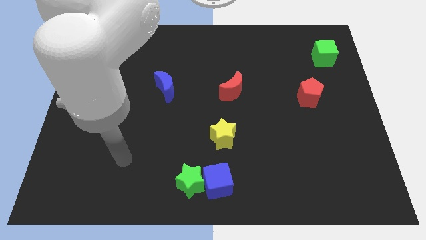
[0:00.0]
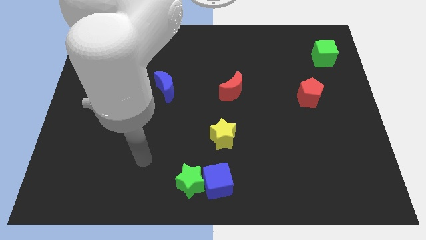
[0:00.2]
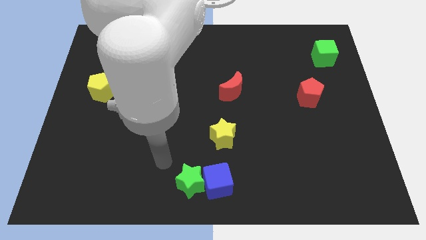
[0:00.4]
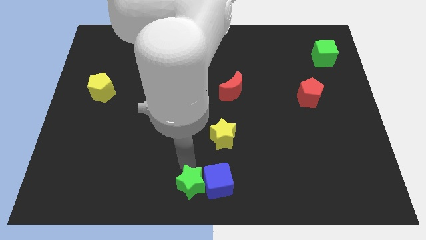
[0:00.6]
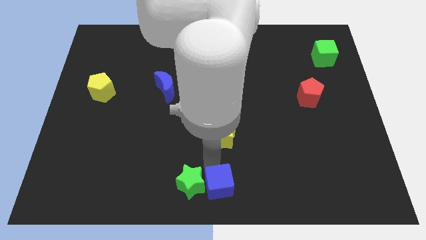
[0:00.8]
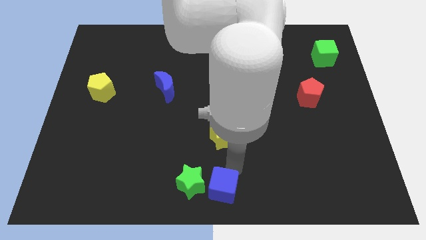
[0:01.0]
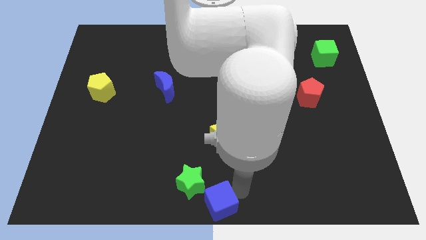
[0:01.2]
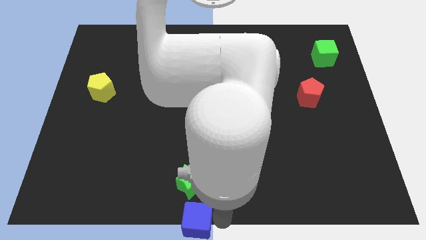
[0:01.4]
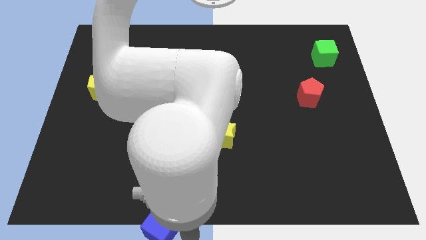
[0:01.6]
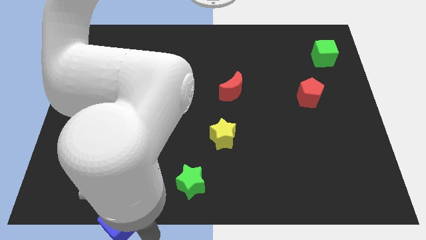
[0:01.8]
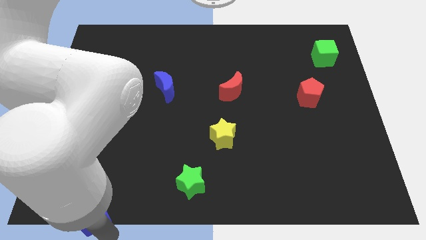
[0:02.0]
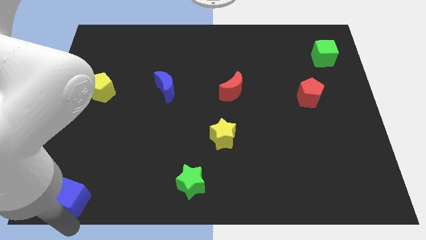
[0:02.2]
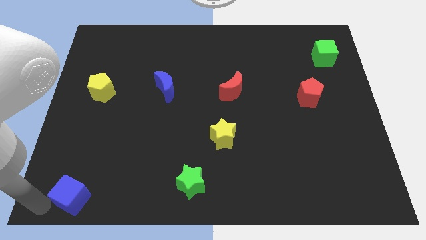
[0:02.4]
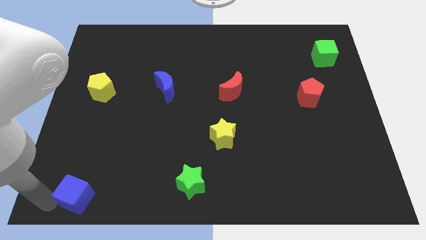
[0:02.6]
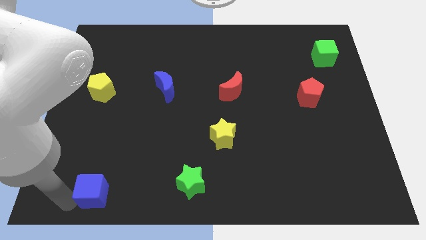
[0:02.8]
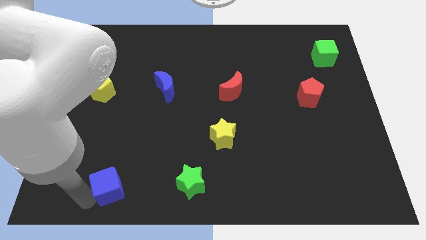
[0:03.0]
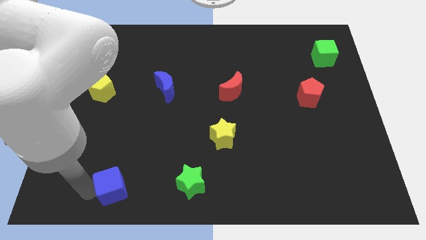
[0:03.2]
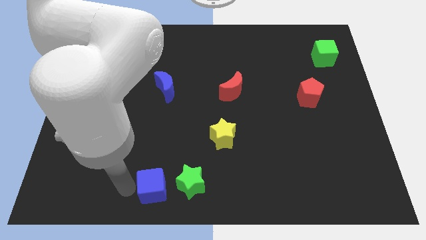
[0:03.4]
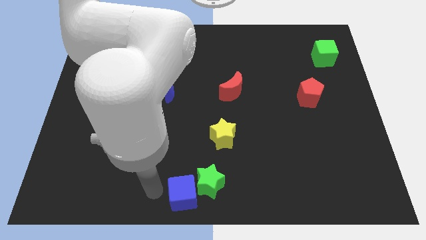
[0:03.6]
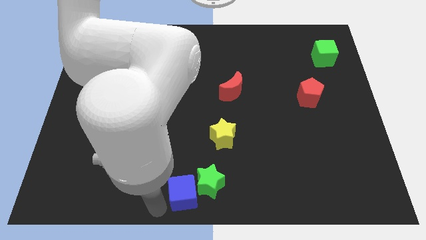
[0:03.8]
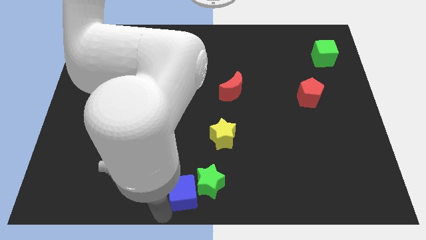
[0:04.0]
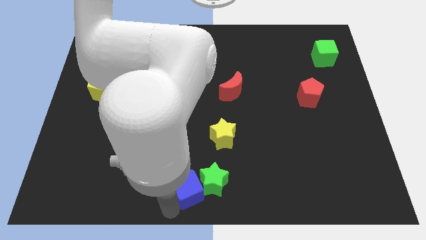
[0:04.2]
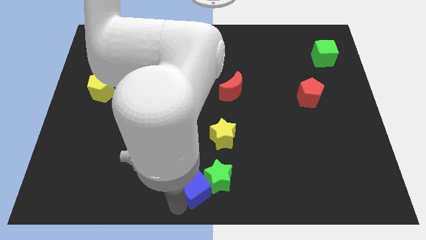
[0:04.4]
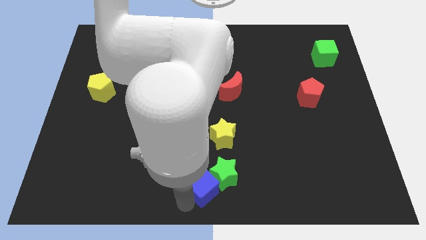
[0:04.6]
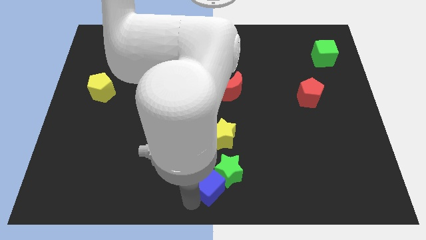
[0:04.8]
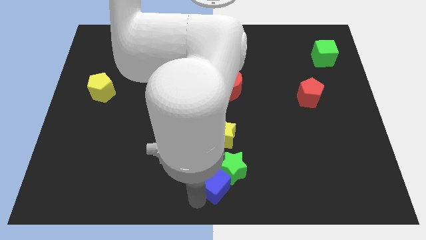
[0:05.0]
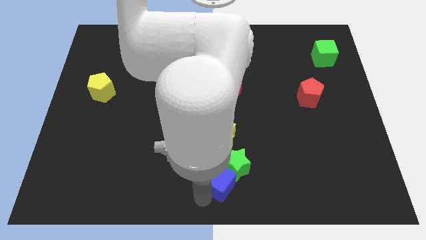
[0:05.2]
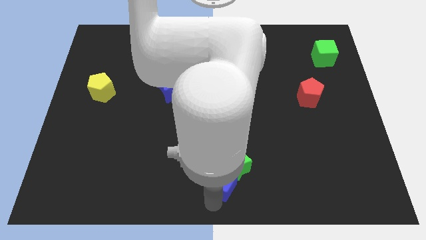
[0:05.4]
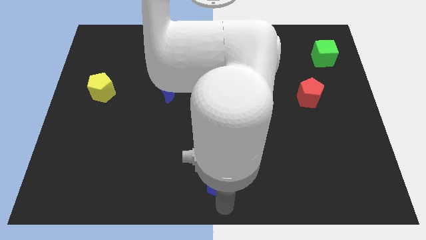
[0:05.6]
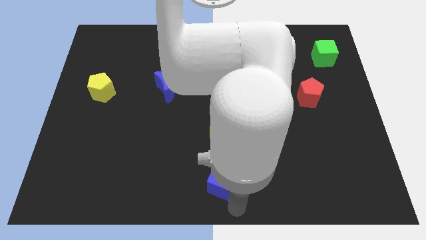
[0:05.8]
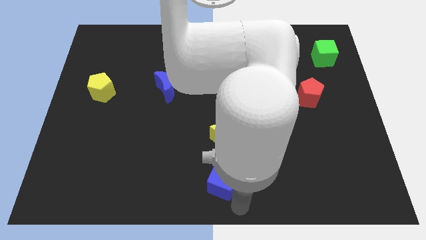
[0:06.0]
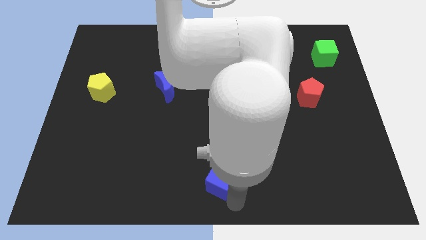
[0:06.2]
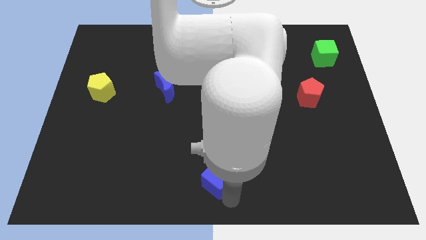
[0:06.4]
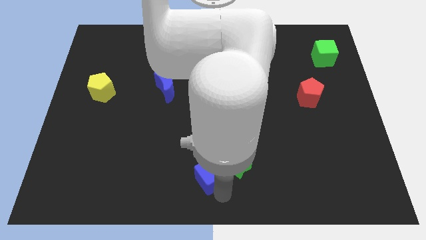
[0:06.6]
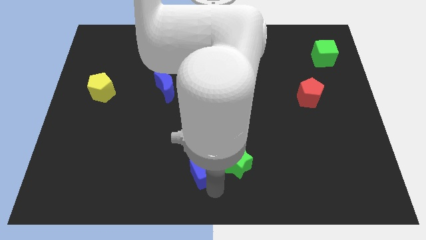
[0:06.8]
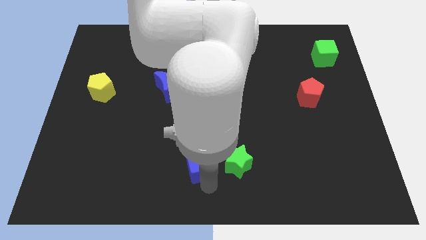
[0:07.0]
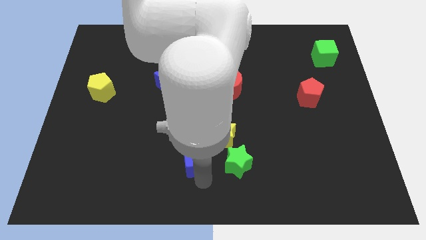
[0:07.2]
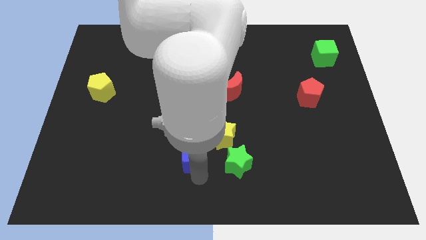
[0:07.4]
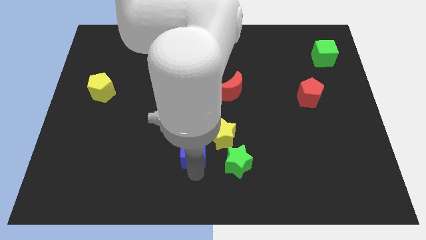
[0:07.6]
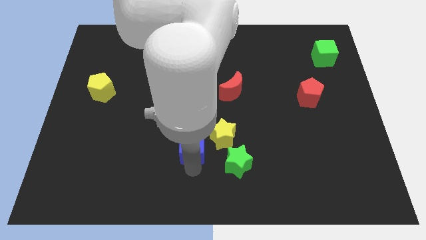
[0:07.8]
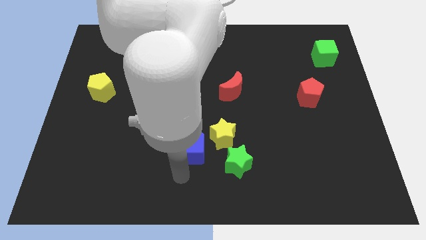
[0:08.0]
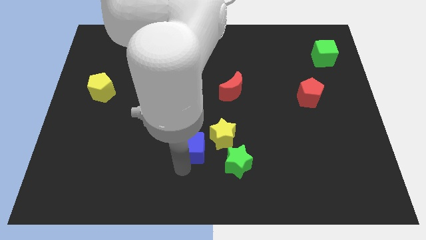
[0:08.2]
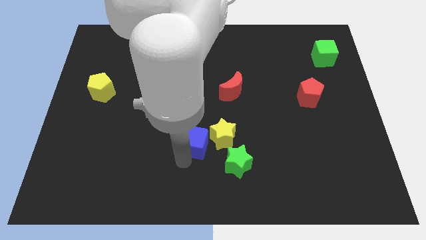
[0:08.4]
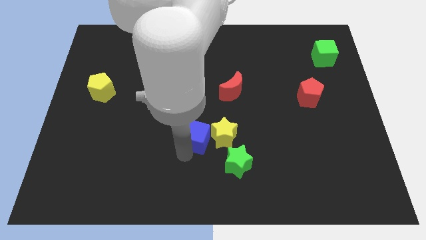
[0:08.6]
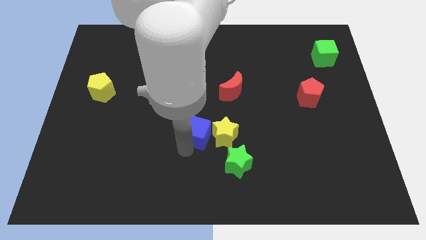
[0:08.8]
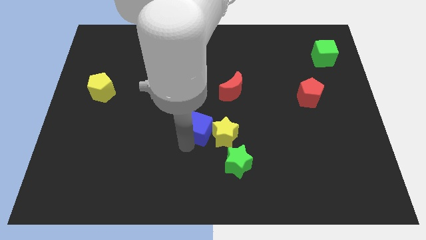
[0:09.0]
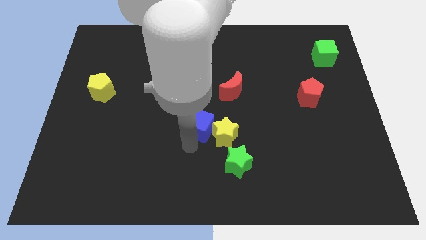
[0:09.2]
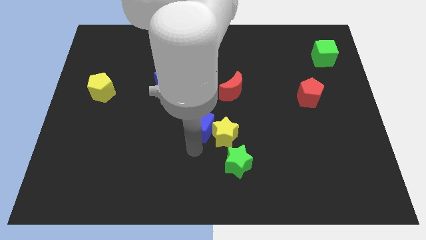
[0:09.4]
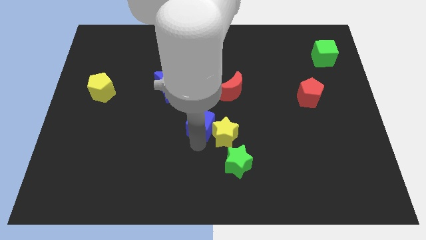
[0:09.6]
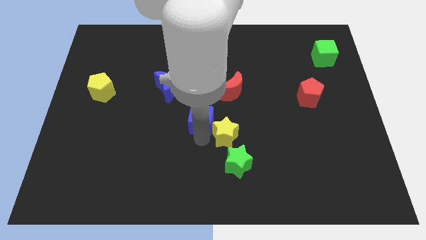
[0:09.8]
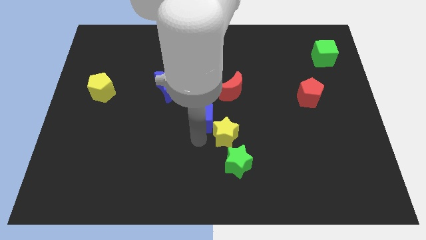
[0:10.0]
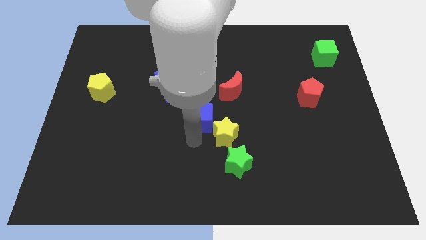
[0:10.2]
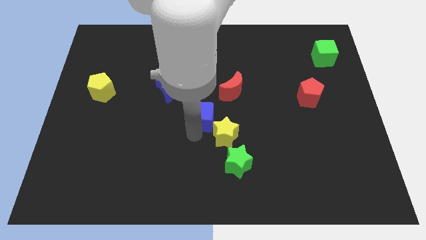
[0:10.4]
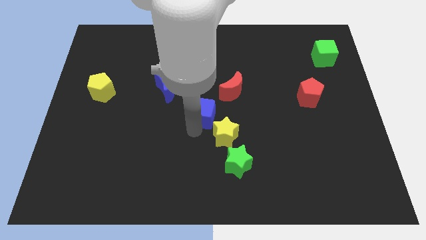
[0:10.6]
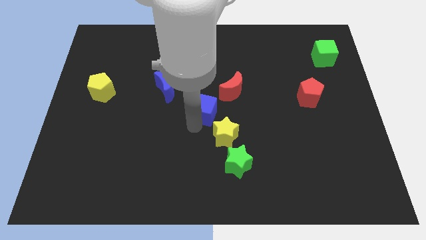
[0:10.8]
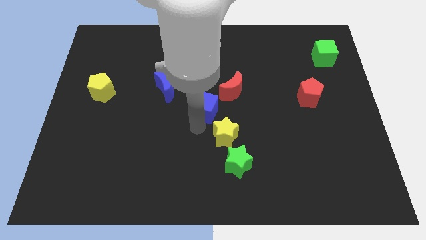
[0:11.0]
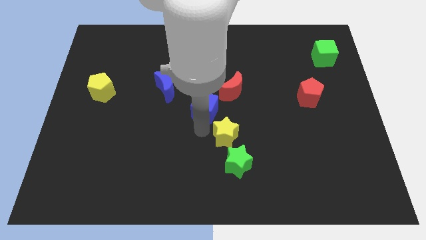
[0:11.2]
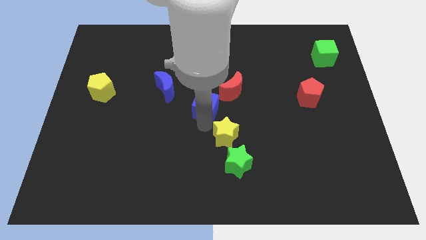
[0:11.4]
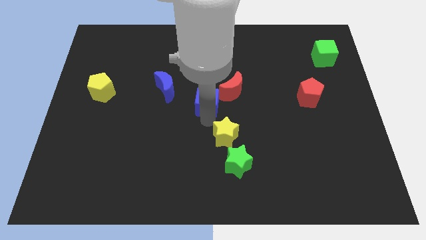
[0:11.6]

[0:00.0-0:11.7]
push the blue cube just right of the blue moon

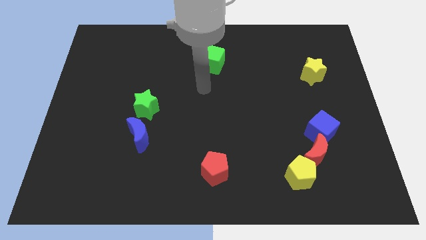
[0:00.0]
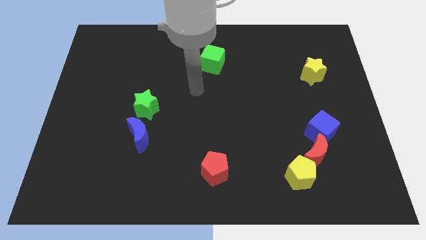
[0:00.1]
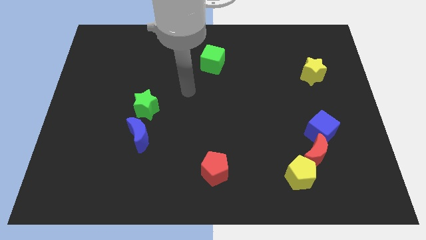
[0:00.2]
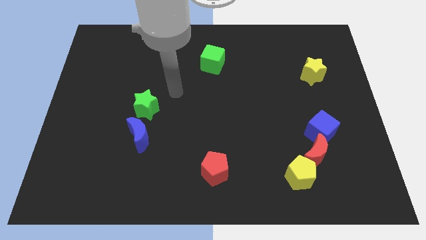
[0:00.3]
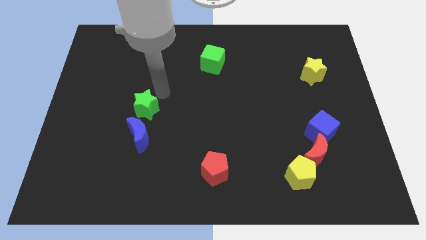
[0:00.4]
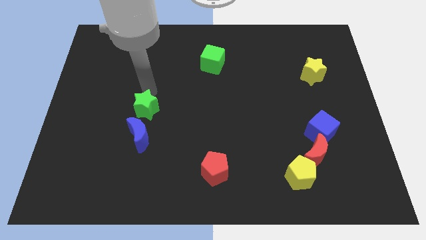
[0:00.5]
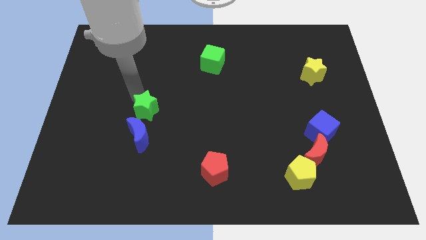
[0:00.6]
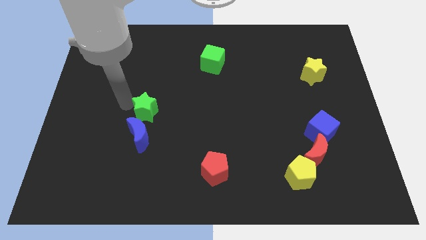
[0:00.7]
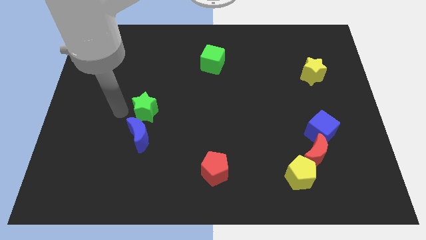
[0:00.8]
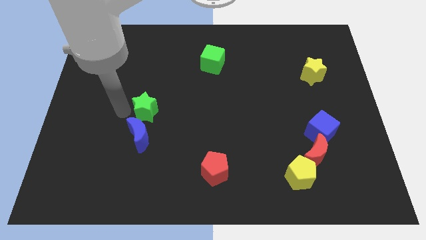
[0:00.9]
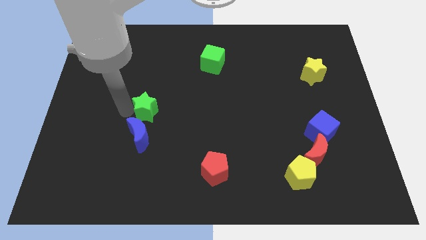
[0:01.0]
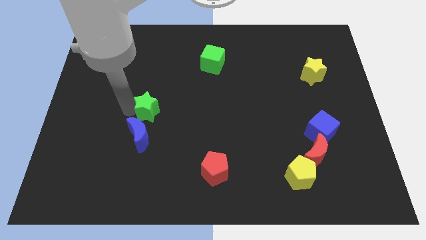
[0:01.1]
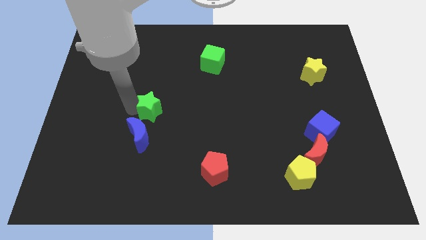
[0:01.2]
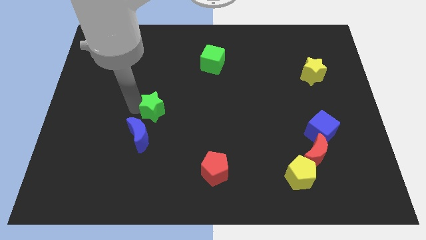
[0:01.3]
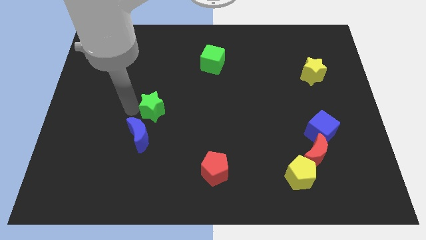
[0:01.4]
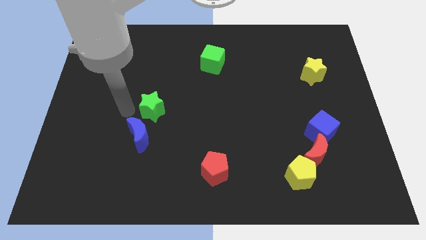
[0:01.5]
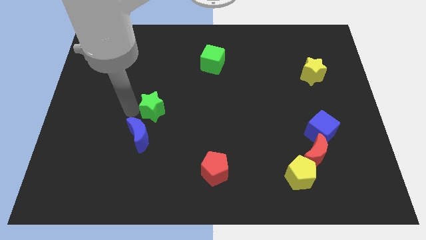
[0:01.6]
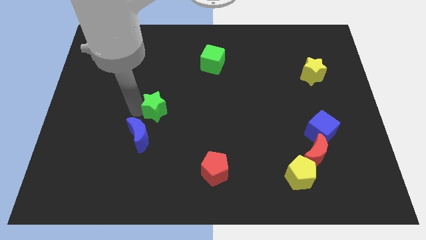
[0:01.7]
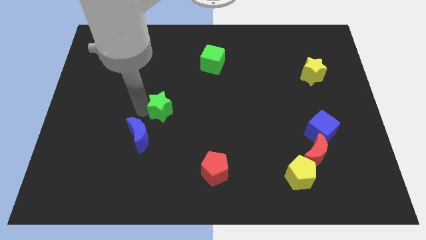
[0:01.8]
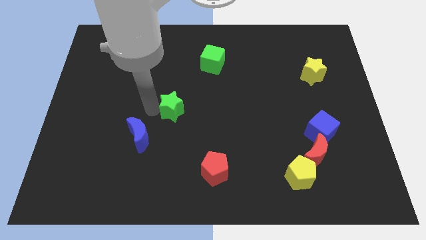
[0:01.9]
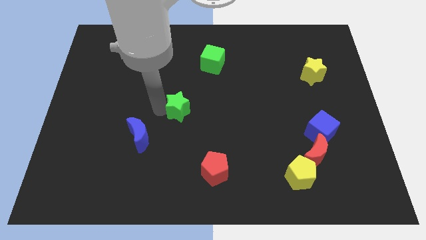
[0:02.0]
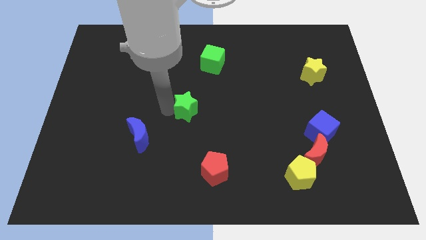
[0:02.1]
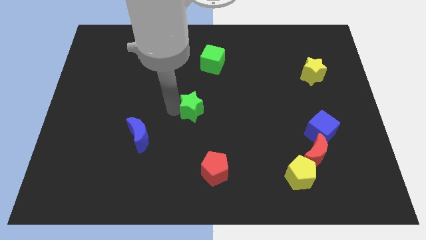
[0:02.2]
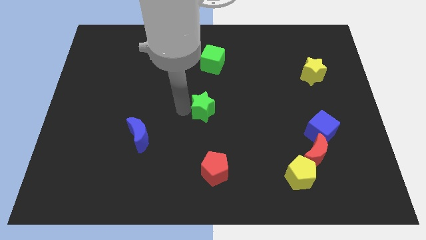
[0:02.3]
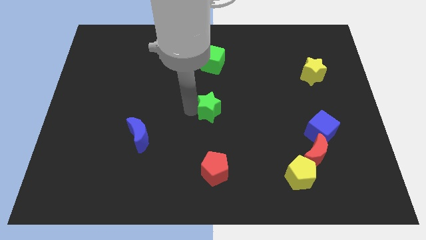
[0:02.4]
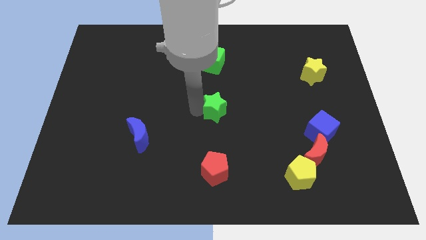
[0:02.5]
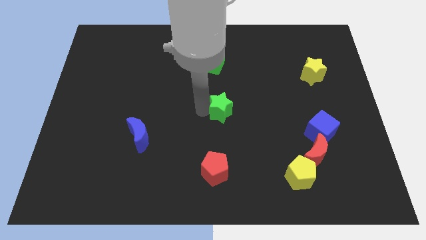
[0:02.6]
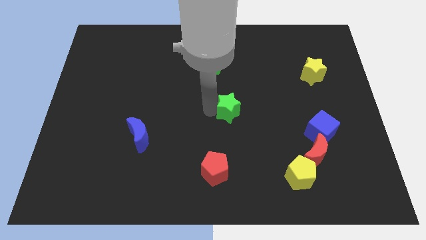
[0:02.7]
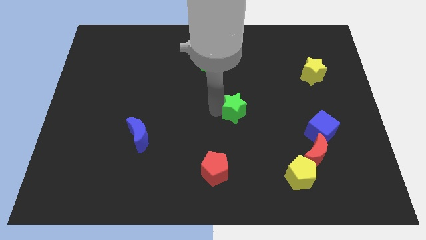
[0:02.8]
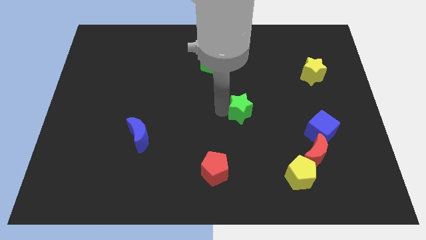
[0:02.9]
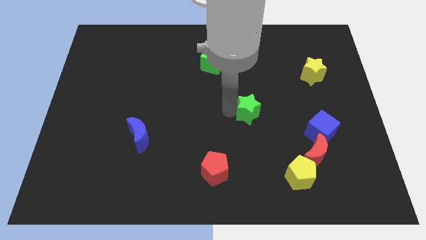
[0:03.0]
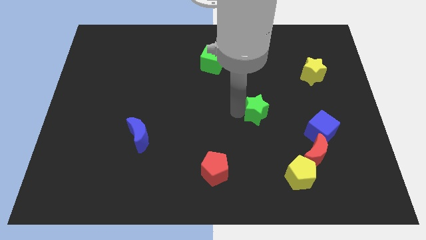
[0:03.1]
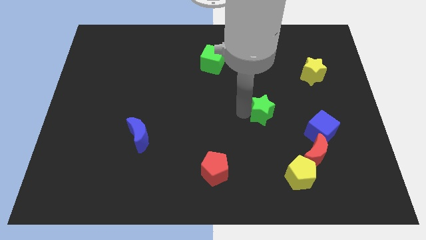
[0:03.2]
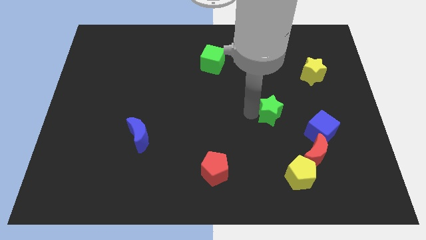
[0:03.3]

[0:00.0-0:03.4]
slide the green star to the top left of the blue cube
